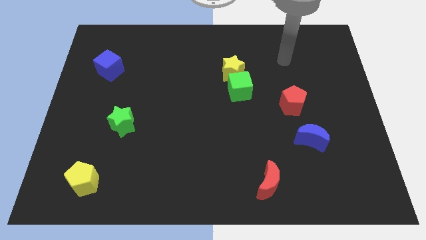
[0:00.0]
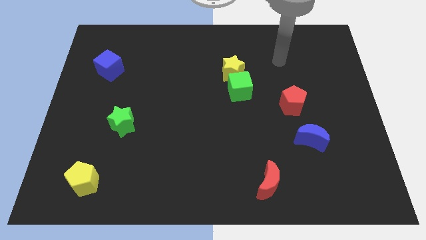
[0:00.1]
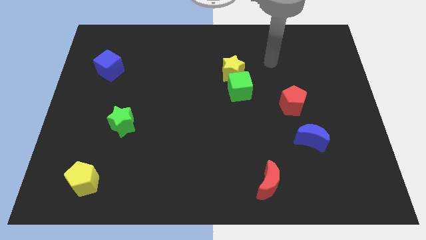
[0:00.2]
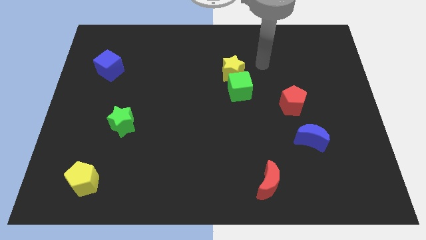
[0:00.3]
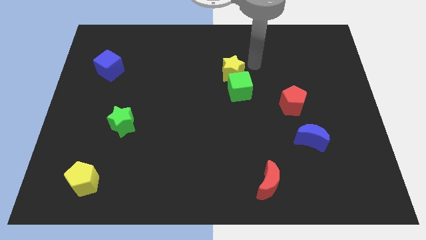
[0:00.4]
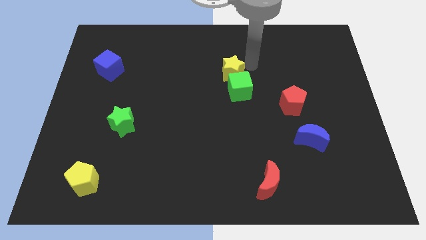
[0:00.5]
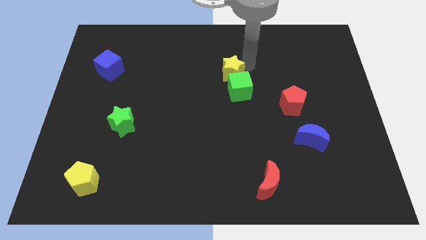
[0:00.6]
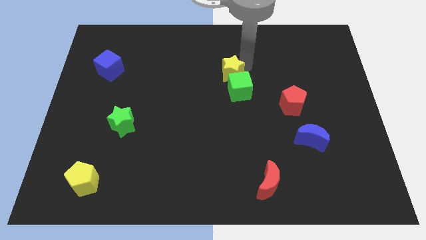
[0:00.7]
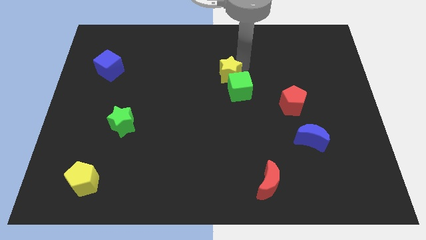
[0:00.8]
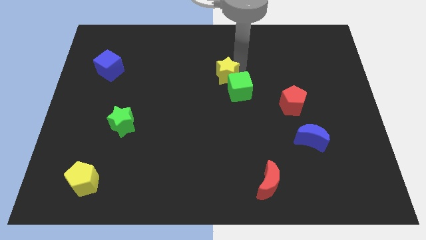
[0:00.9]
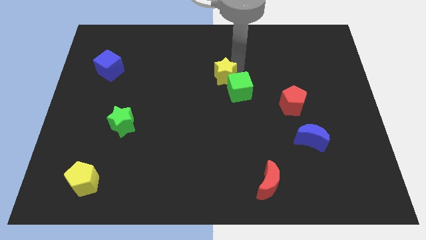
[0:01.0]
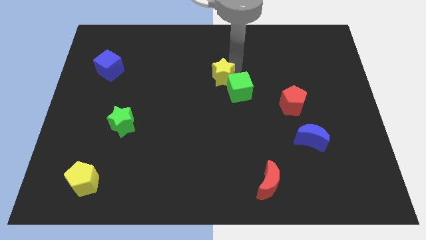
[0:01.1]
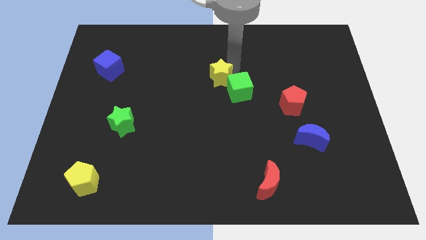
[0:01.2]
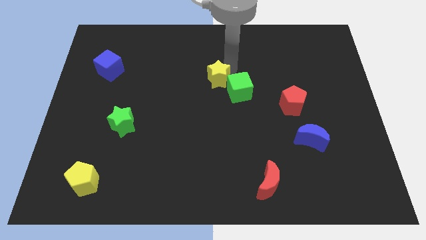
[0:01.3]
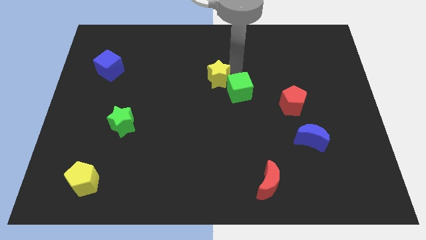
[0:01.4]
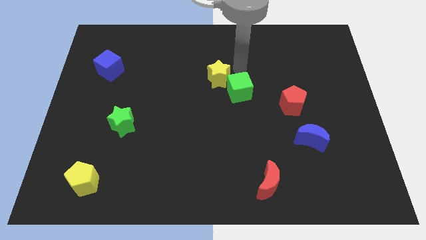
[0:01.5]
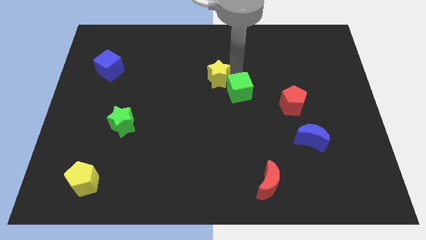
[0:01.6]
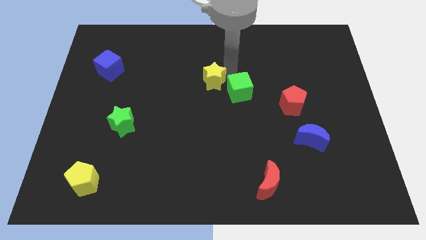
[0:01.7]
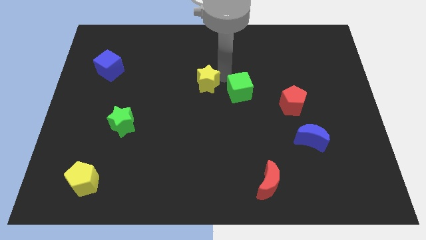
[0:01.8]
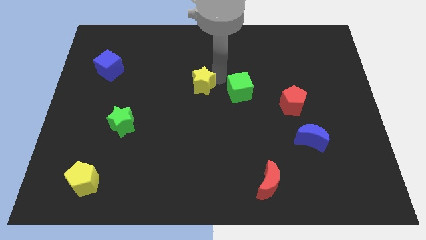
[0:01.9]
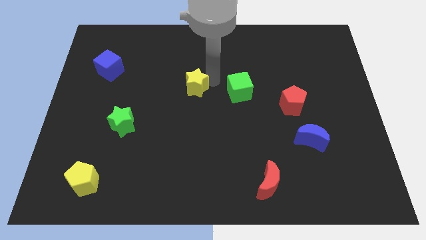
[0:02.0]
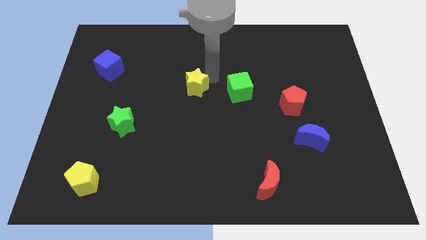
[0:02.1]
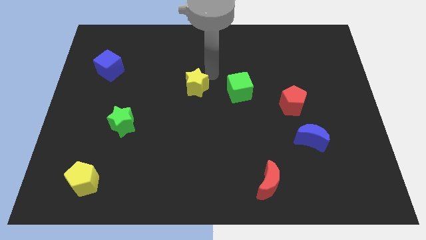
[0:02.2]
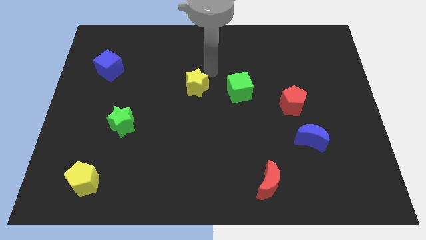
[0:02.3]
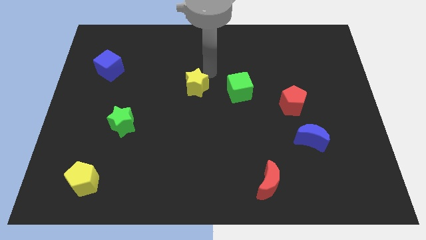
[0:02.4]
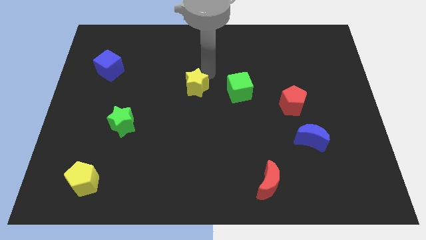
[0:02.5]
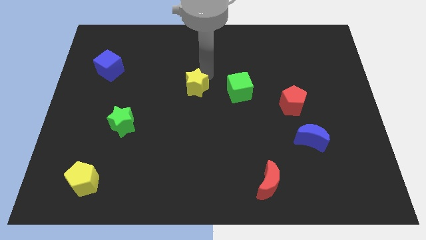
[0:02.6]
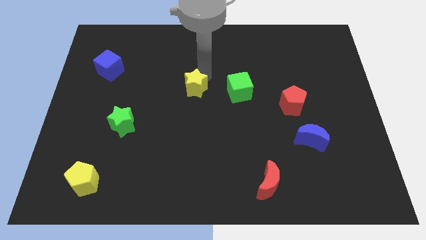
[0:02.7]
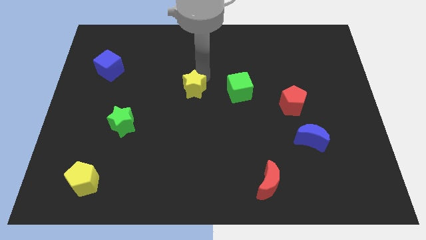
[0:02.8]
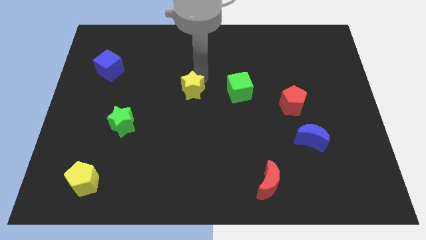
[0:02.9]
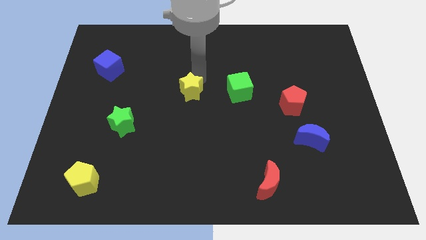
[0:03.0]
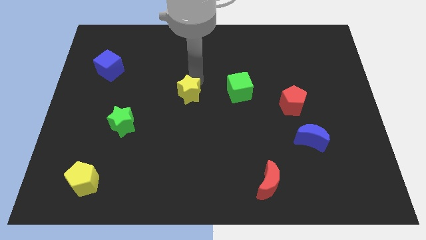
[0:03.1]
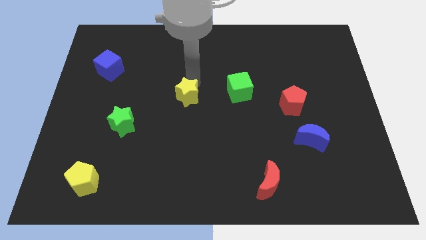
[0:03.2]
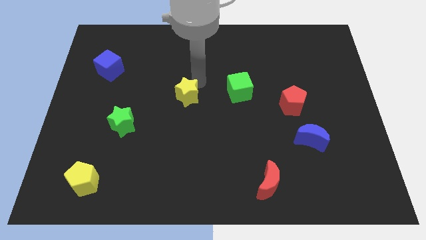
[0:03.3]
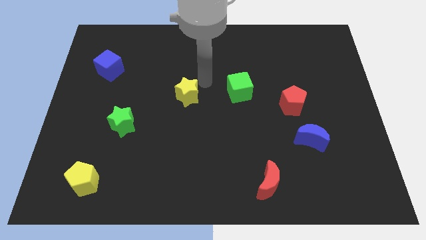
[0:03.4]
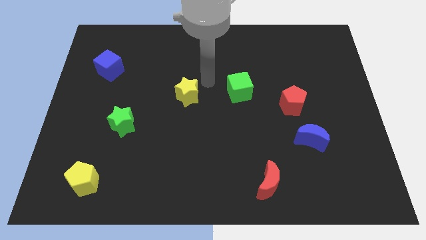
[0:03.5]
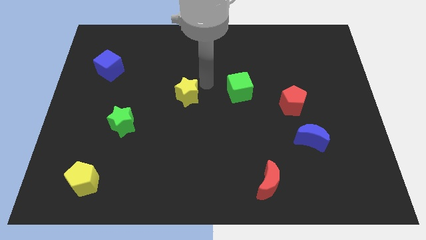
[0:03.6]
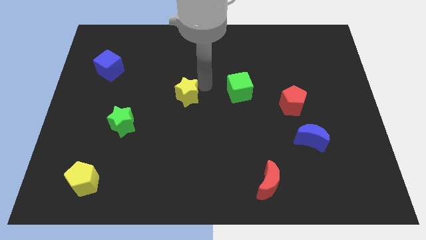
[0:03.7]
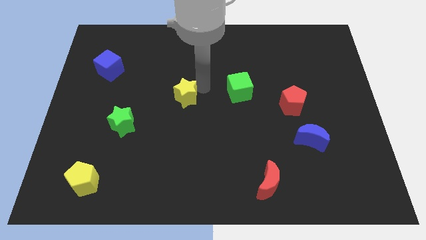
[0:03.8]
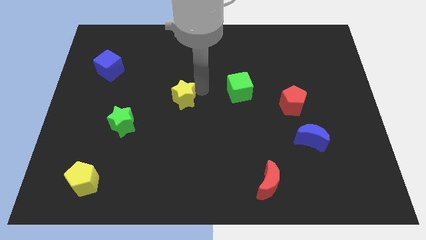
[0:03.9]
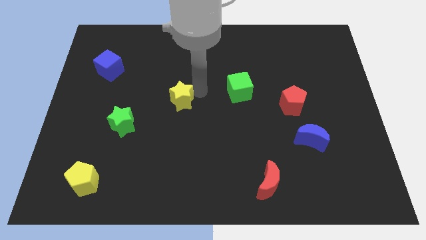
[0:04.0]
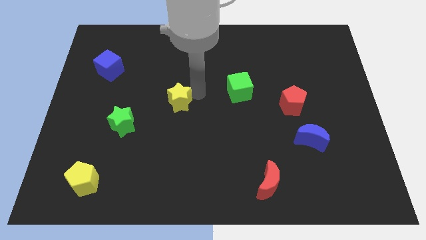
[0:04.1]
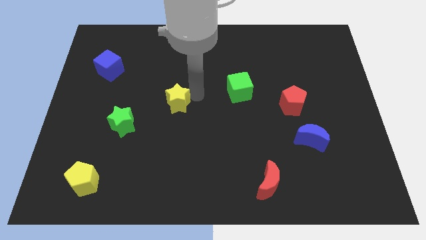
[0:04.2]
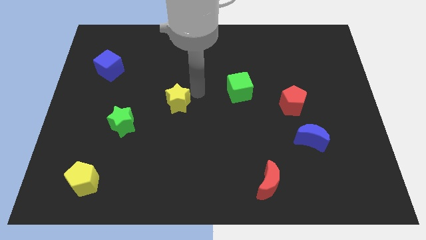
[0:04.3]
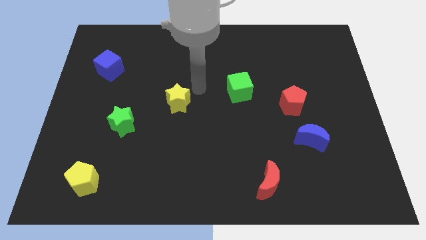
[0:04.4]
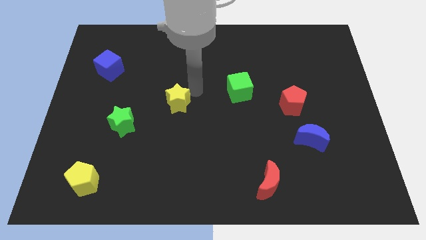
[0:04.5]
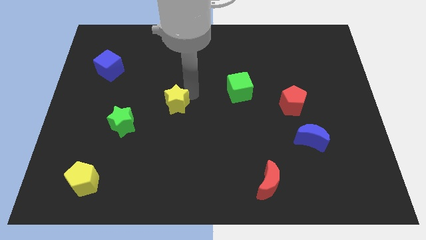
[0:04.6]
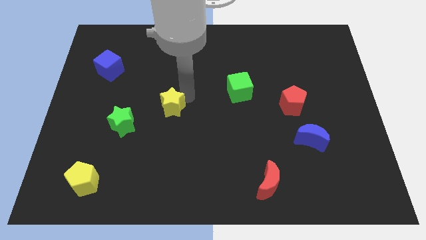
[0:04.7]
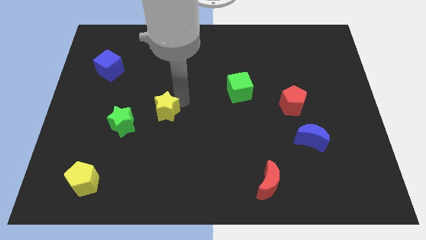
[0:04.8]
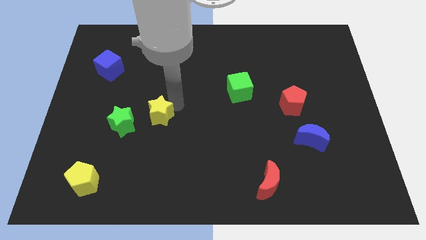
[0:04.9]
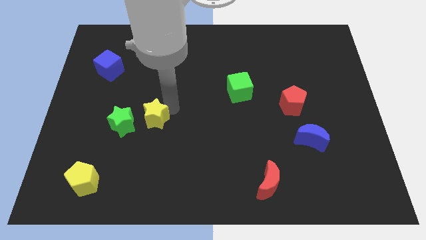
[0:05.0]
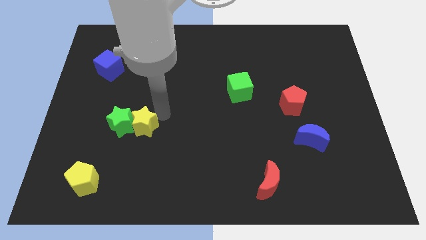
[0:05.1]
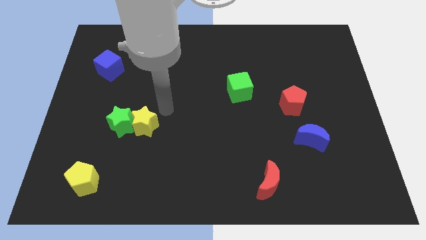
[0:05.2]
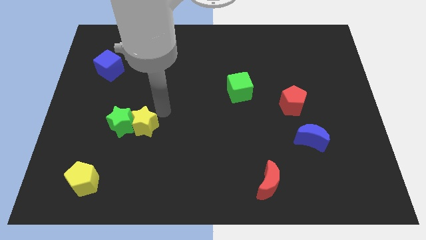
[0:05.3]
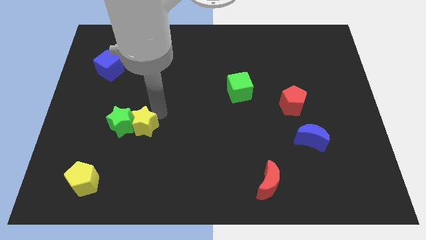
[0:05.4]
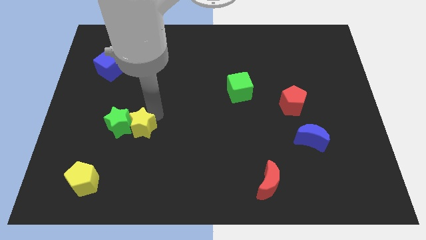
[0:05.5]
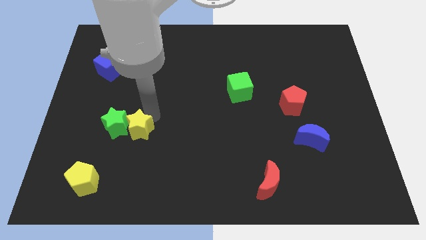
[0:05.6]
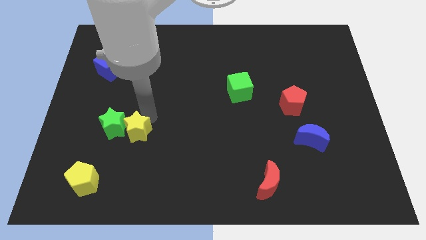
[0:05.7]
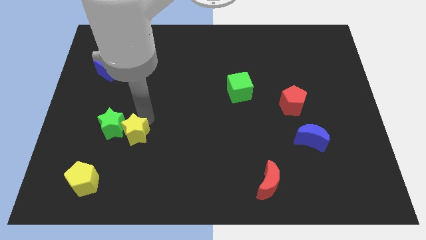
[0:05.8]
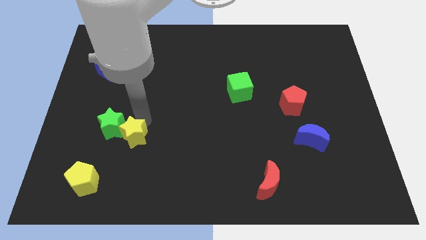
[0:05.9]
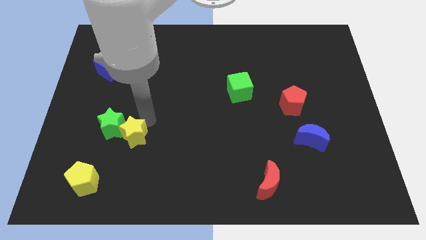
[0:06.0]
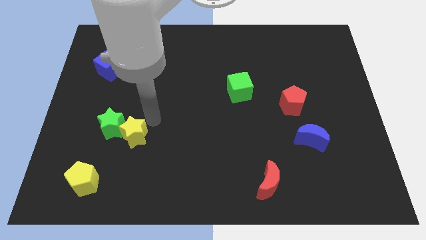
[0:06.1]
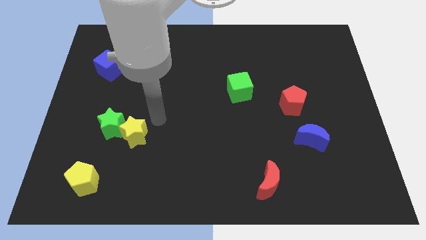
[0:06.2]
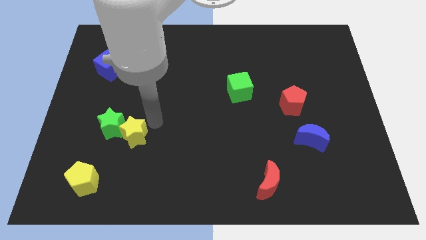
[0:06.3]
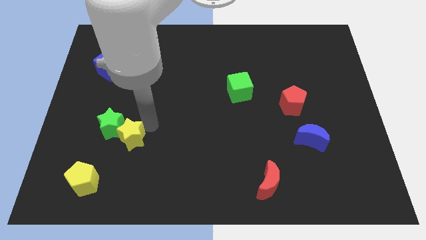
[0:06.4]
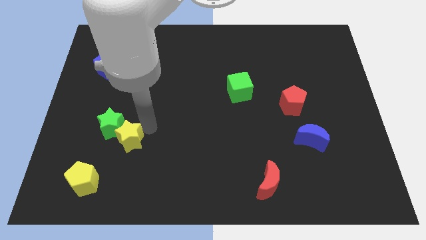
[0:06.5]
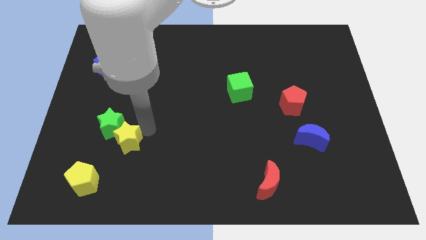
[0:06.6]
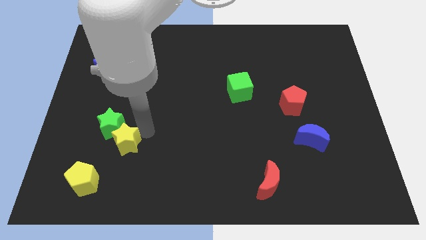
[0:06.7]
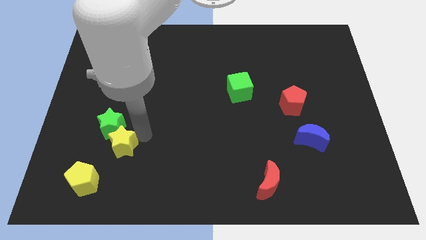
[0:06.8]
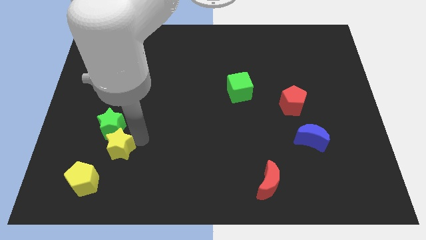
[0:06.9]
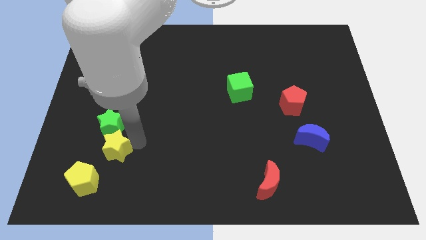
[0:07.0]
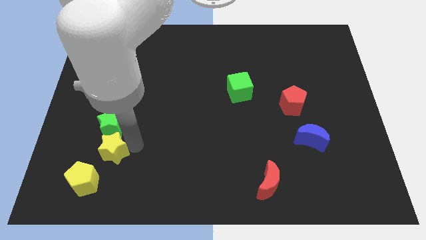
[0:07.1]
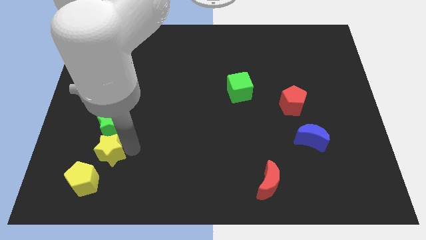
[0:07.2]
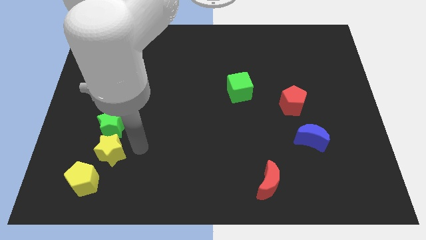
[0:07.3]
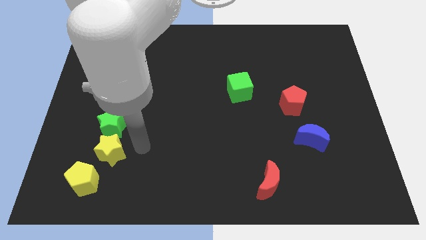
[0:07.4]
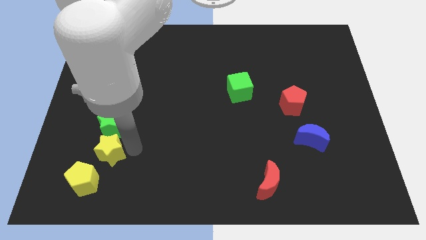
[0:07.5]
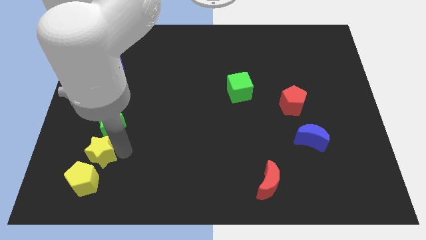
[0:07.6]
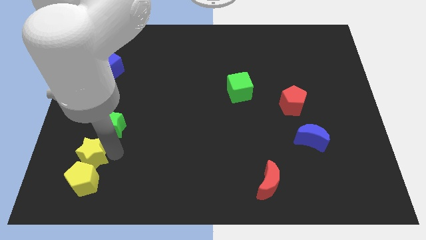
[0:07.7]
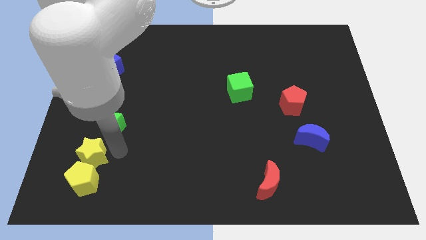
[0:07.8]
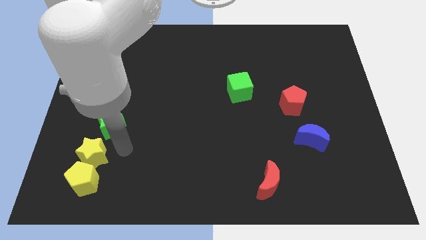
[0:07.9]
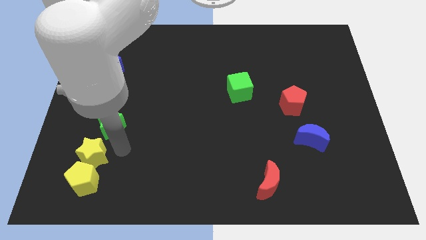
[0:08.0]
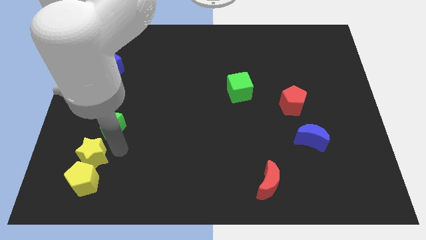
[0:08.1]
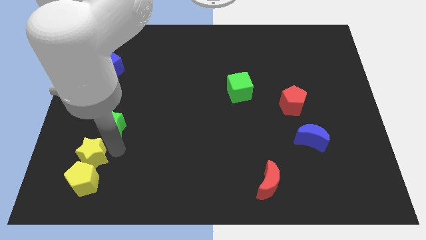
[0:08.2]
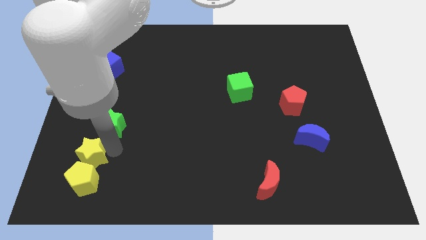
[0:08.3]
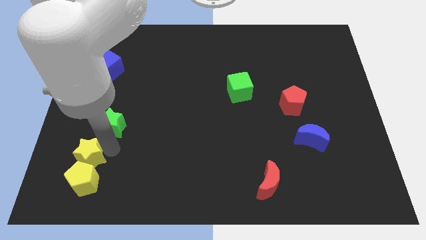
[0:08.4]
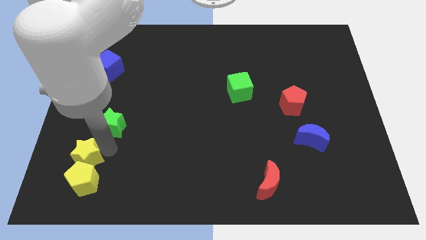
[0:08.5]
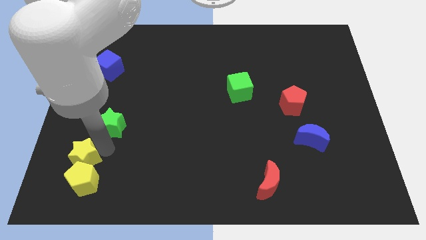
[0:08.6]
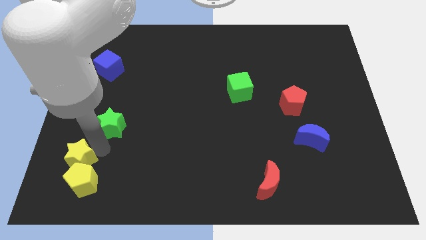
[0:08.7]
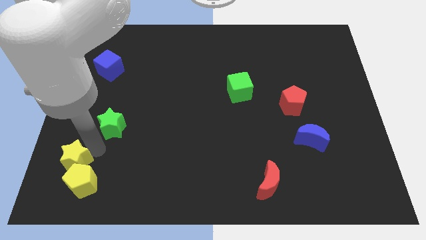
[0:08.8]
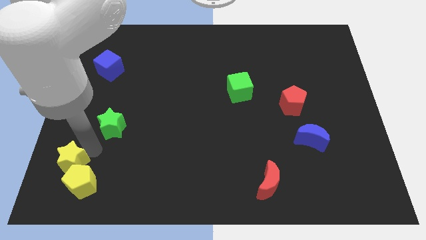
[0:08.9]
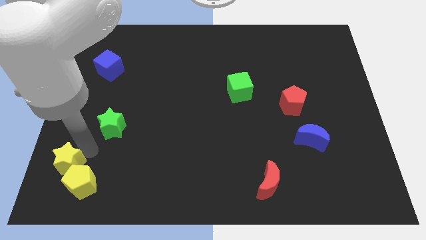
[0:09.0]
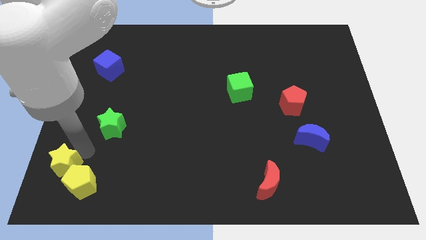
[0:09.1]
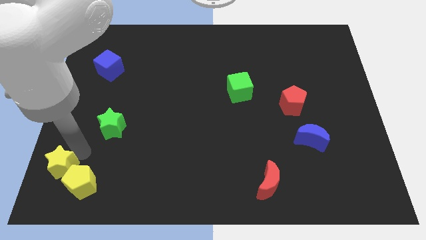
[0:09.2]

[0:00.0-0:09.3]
move the yellow star to the bottom left corner
